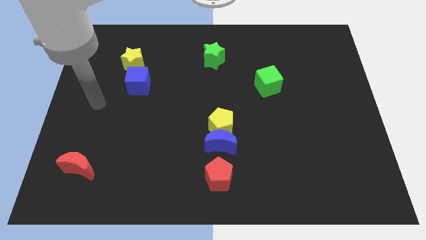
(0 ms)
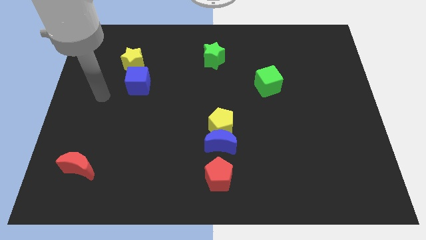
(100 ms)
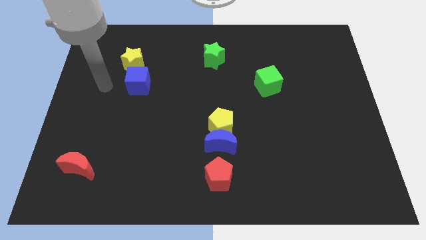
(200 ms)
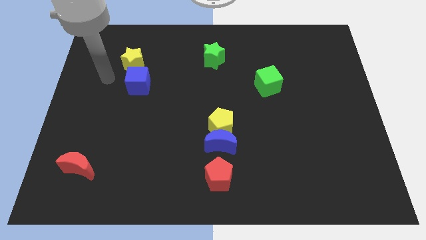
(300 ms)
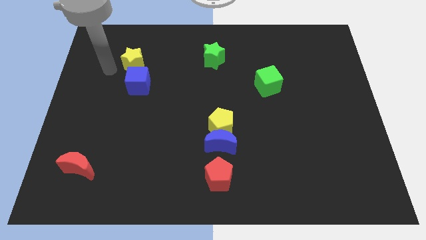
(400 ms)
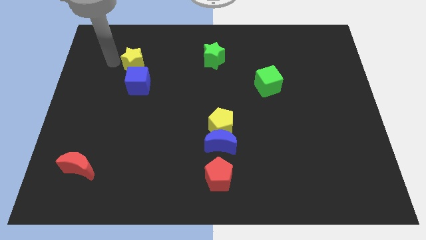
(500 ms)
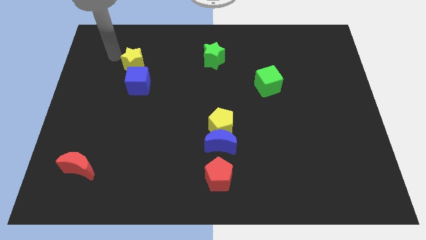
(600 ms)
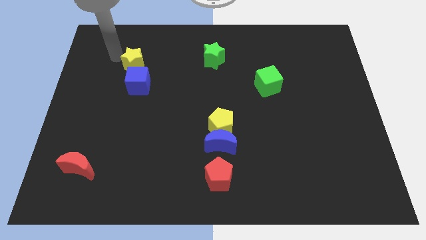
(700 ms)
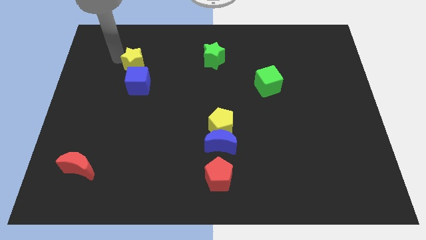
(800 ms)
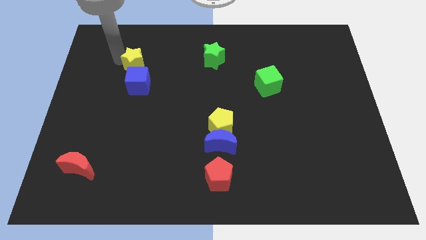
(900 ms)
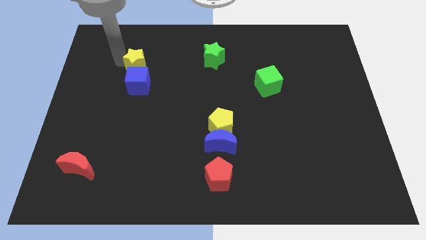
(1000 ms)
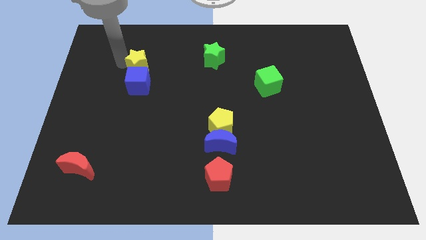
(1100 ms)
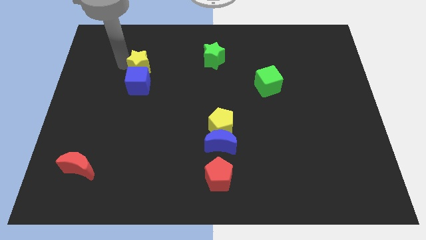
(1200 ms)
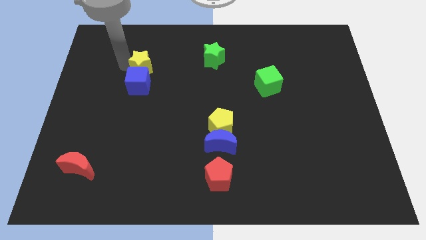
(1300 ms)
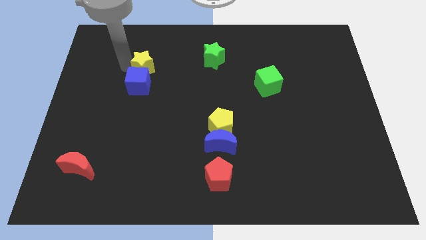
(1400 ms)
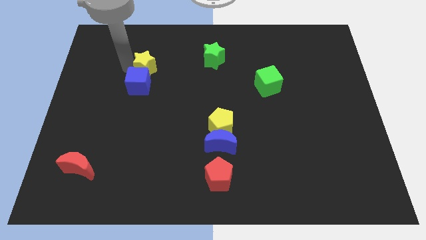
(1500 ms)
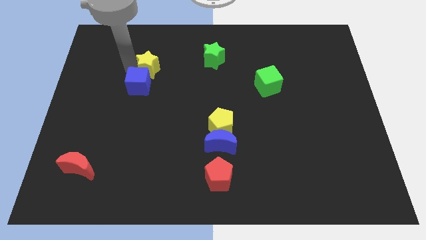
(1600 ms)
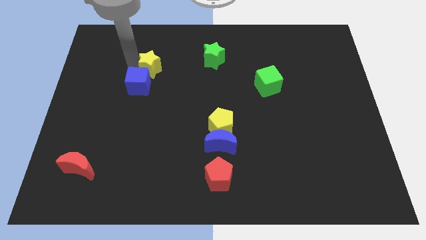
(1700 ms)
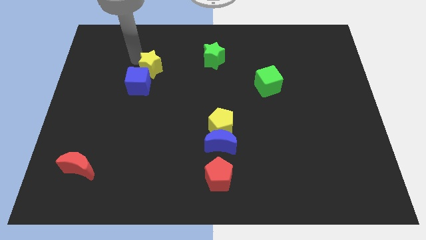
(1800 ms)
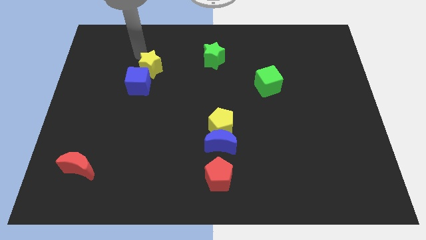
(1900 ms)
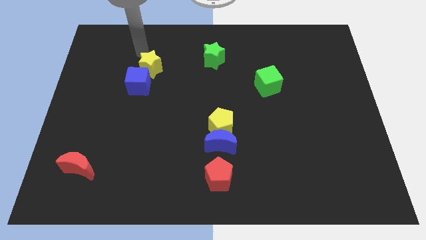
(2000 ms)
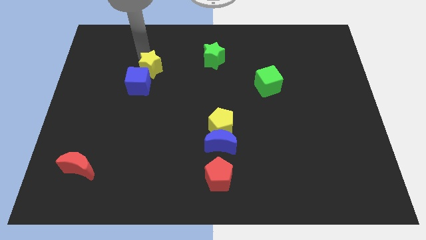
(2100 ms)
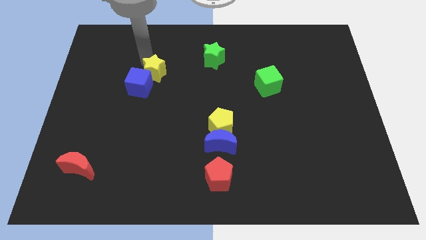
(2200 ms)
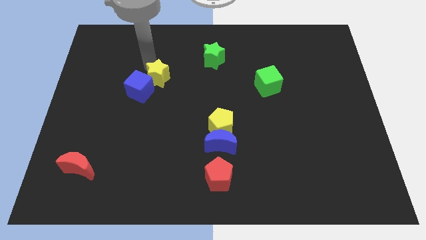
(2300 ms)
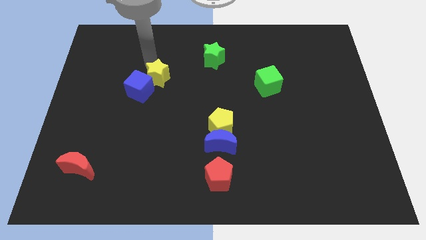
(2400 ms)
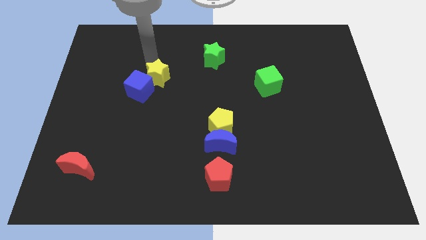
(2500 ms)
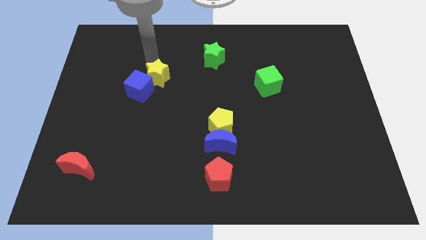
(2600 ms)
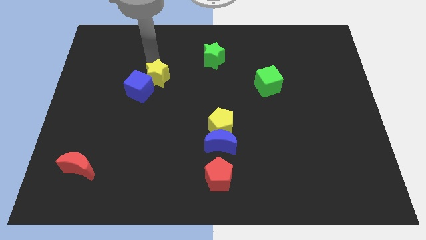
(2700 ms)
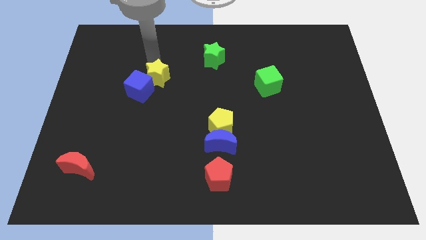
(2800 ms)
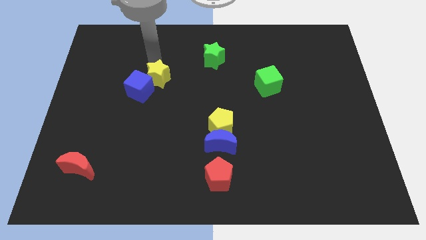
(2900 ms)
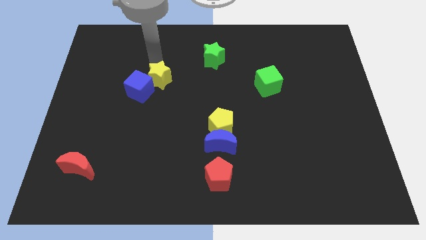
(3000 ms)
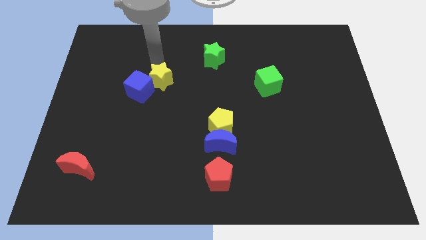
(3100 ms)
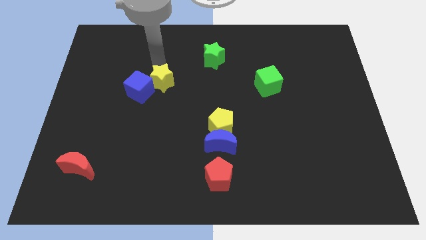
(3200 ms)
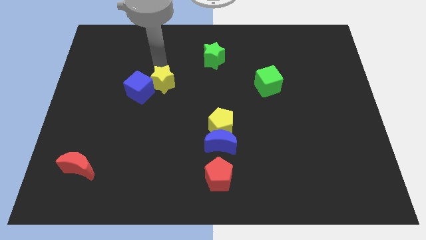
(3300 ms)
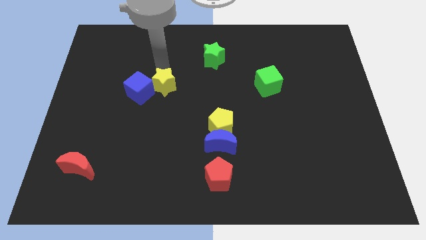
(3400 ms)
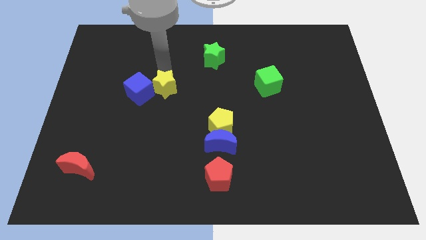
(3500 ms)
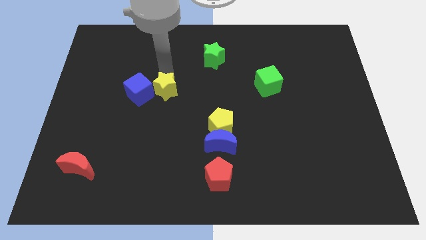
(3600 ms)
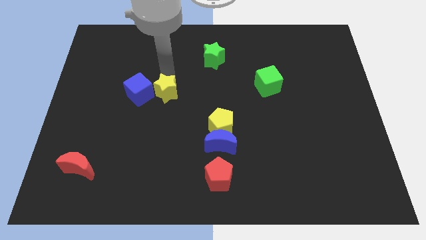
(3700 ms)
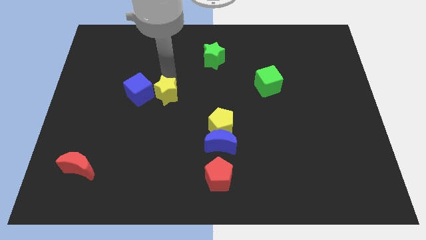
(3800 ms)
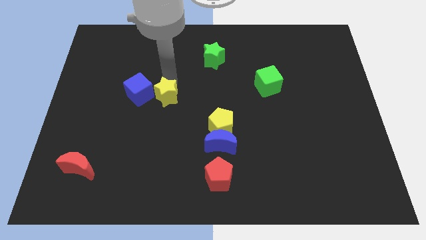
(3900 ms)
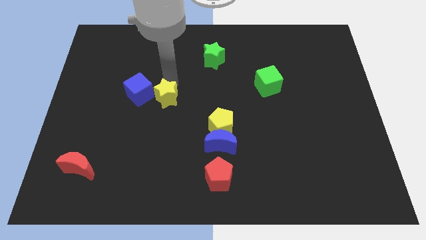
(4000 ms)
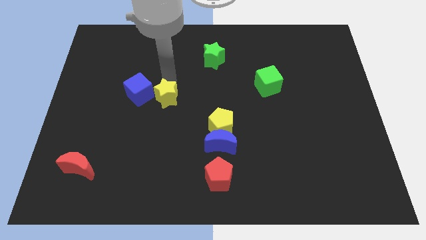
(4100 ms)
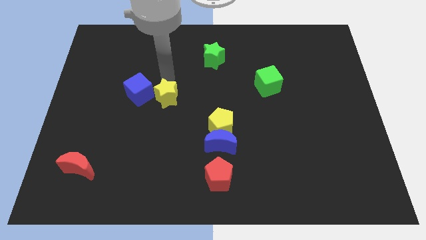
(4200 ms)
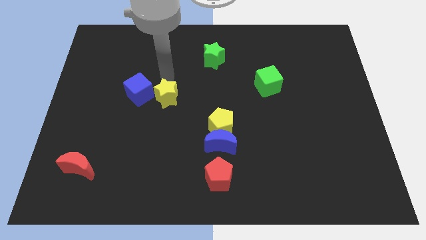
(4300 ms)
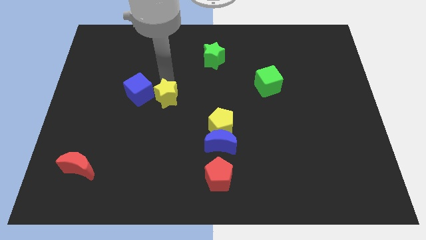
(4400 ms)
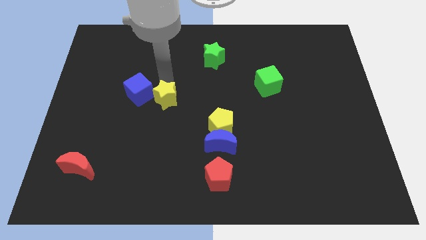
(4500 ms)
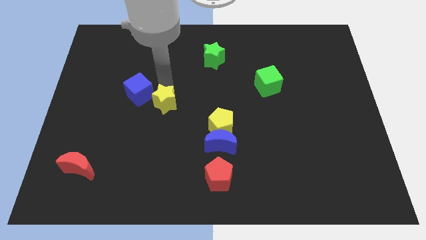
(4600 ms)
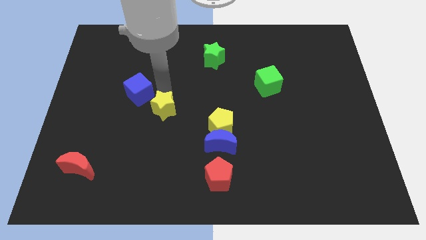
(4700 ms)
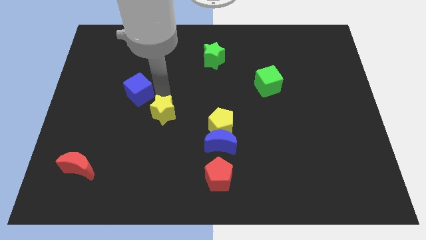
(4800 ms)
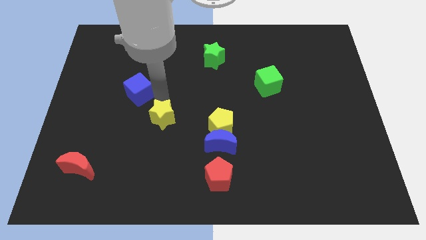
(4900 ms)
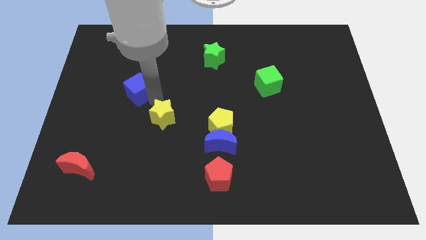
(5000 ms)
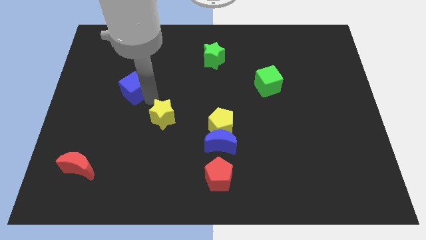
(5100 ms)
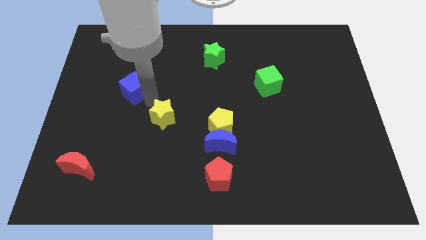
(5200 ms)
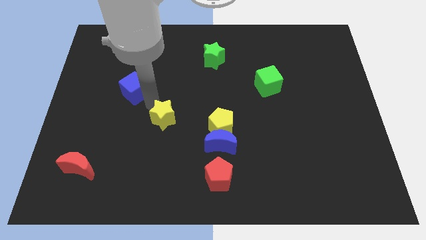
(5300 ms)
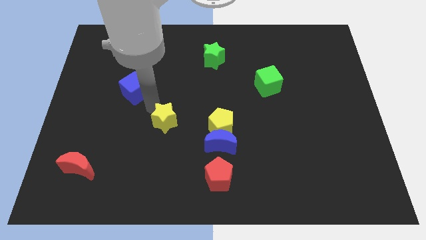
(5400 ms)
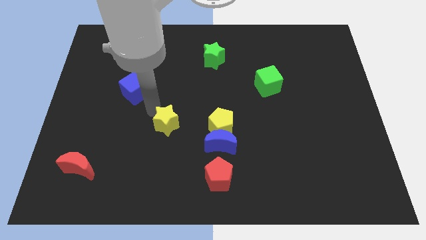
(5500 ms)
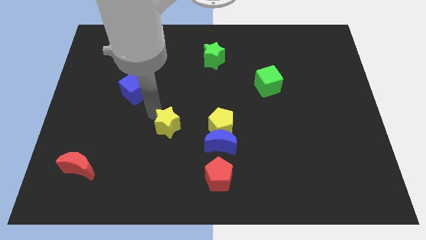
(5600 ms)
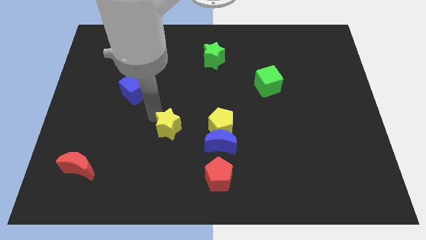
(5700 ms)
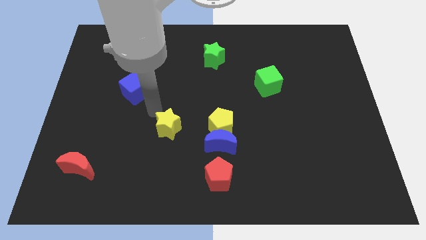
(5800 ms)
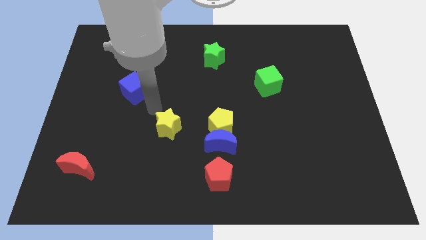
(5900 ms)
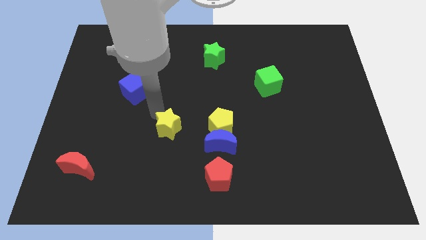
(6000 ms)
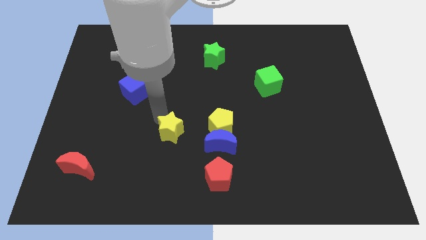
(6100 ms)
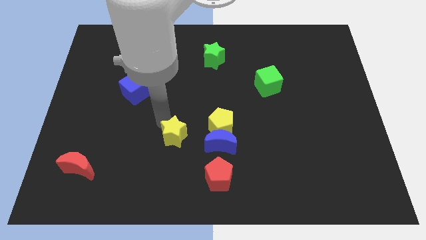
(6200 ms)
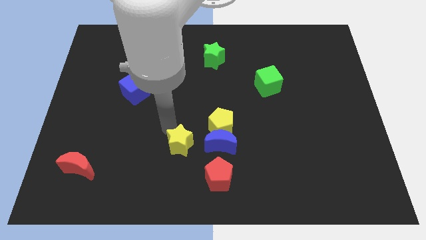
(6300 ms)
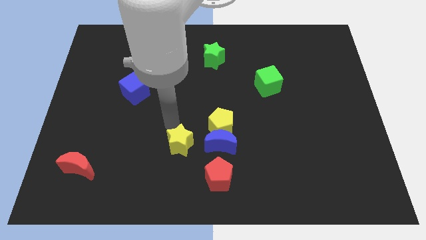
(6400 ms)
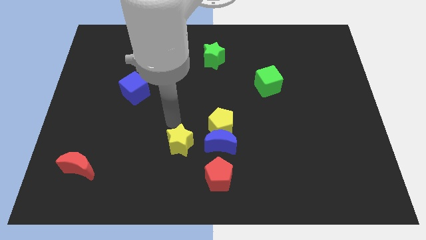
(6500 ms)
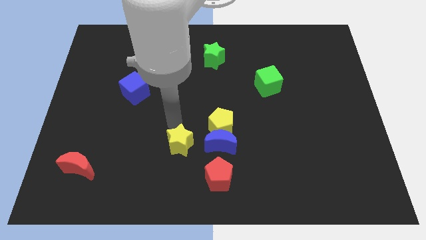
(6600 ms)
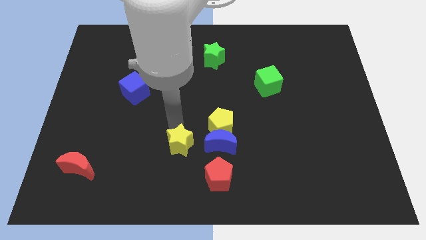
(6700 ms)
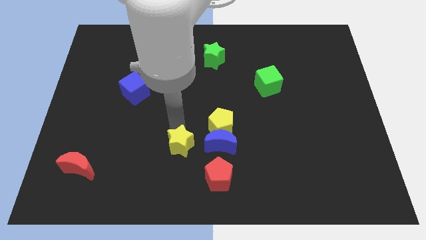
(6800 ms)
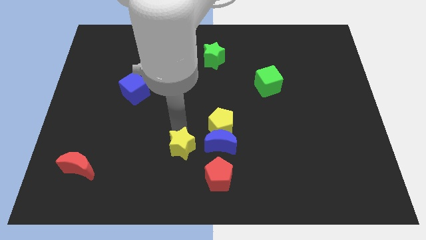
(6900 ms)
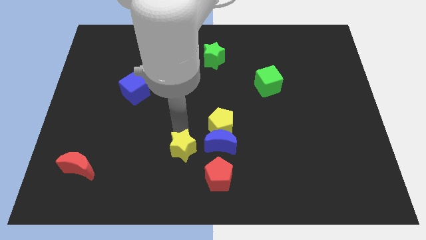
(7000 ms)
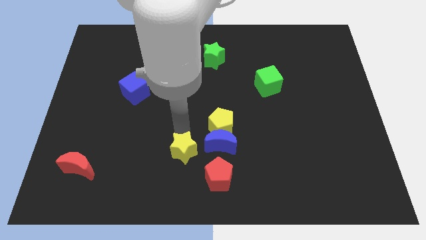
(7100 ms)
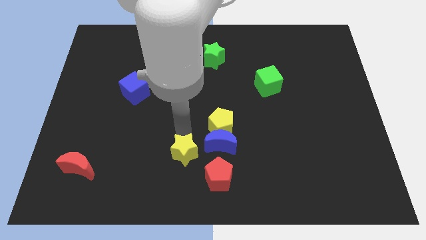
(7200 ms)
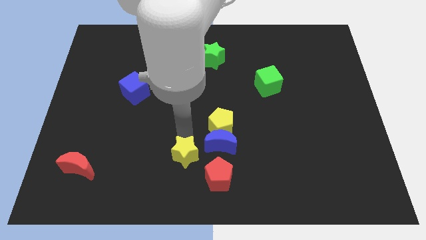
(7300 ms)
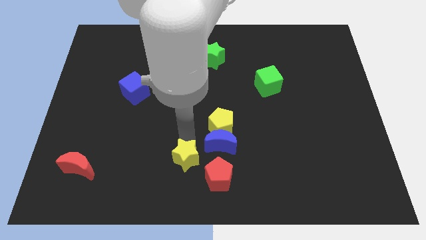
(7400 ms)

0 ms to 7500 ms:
move the yellow star to the bottom
